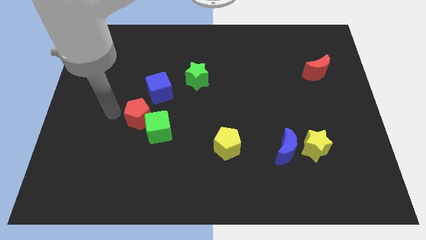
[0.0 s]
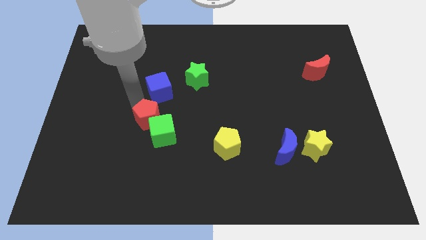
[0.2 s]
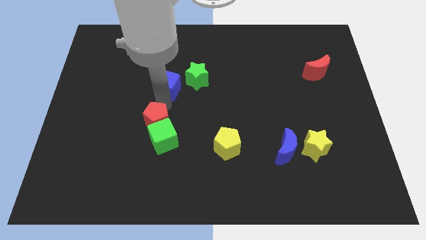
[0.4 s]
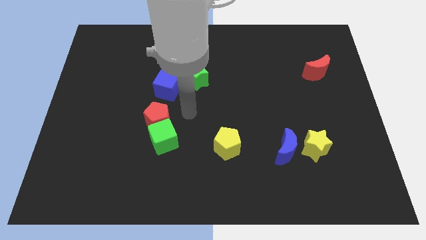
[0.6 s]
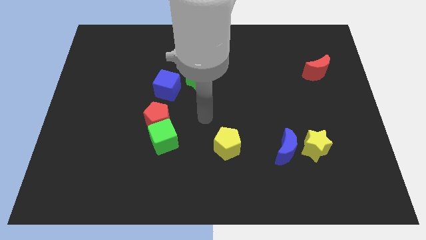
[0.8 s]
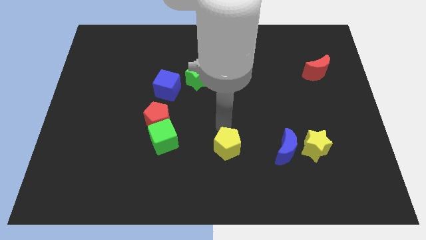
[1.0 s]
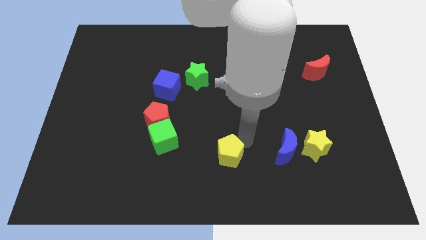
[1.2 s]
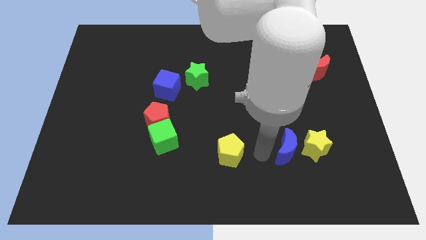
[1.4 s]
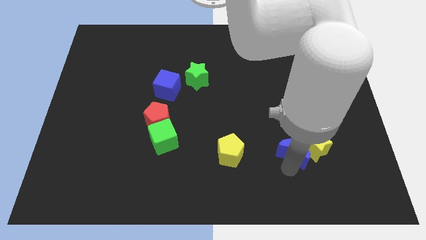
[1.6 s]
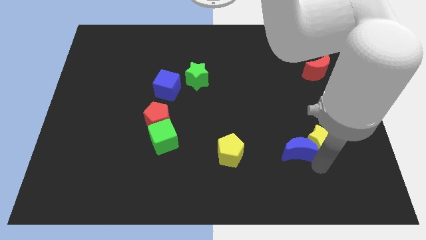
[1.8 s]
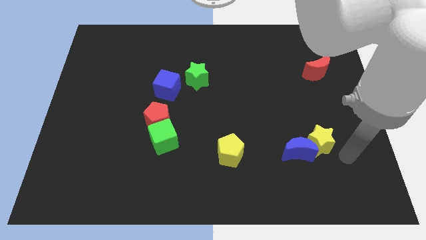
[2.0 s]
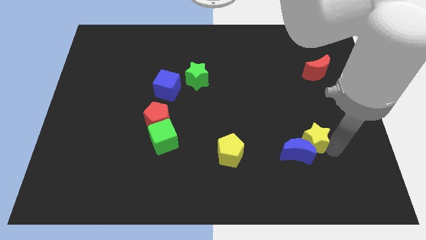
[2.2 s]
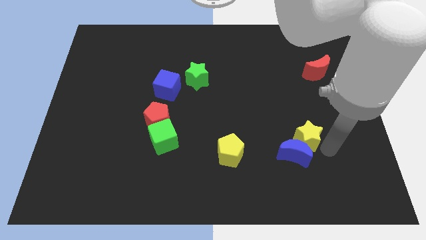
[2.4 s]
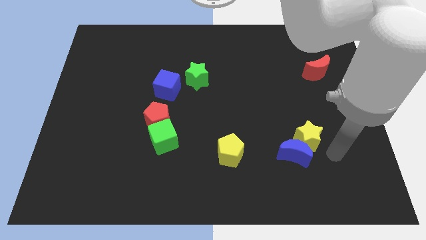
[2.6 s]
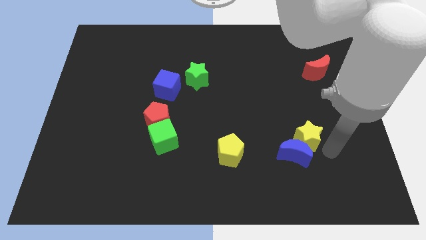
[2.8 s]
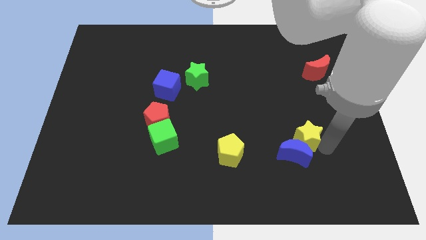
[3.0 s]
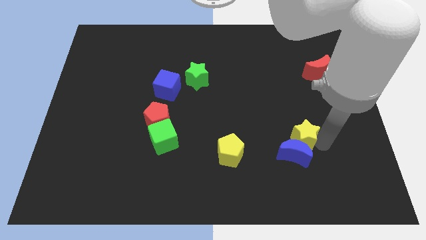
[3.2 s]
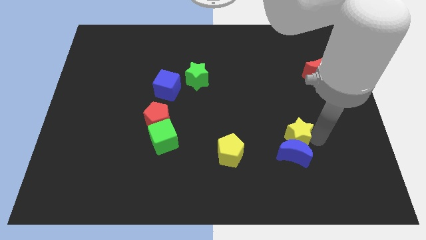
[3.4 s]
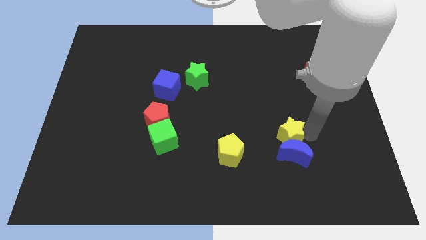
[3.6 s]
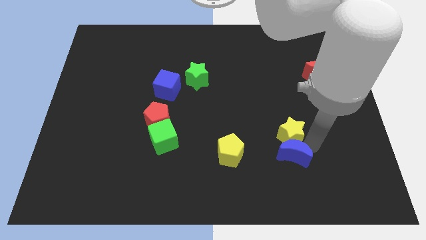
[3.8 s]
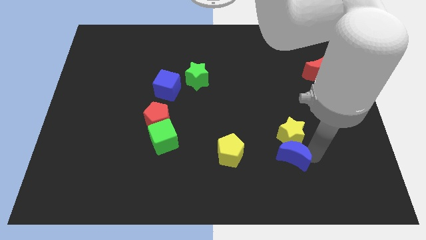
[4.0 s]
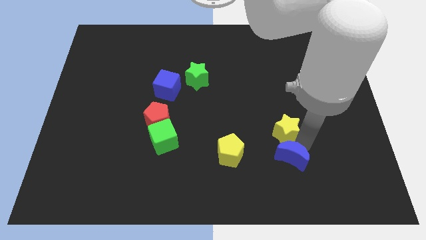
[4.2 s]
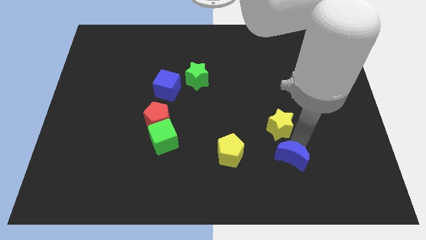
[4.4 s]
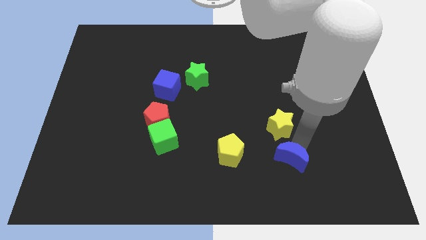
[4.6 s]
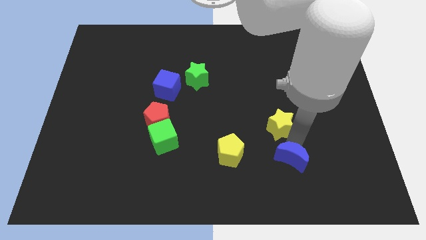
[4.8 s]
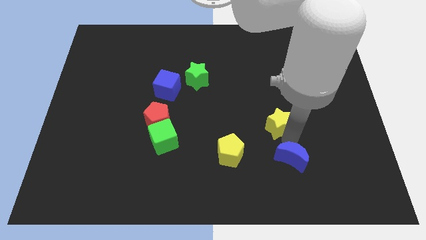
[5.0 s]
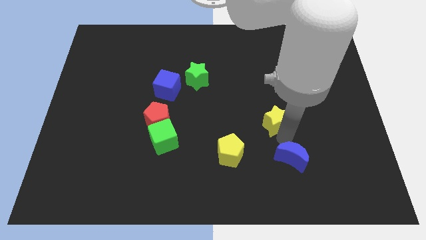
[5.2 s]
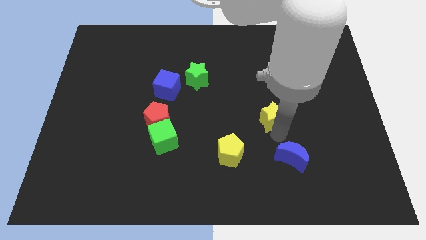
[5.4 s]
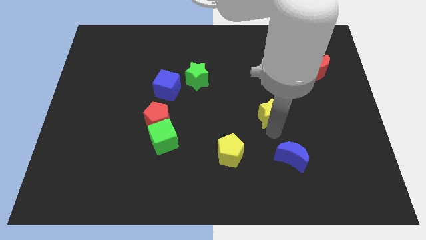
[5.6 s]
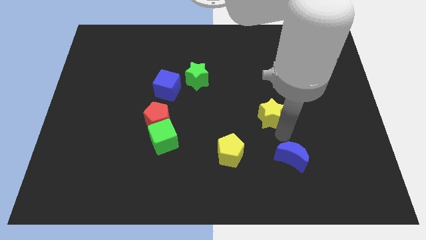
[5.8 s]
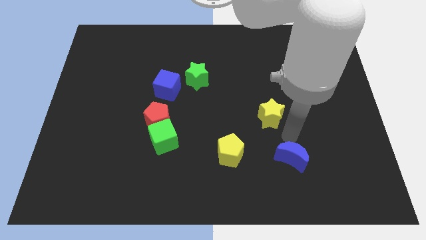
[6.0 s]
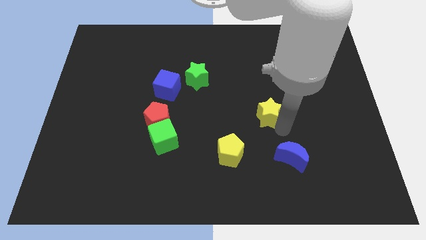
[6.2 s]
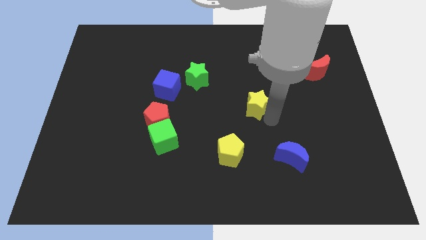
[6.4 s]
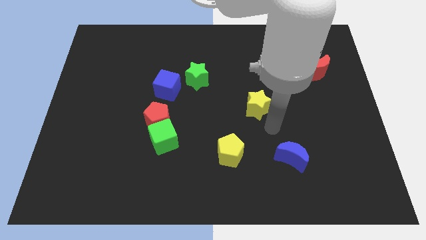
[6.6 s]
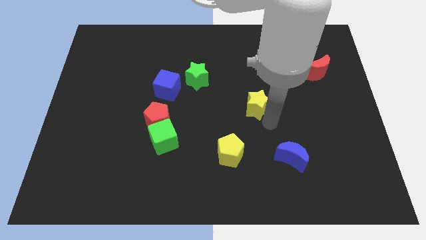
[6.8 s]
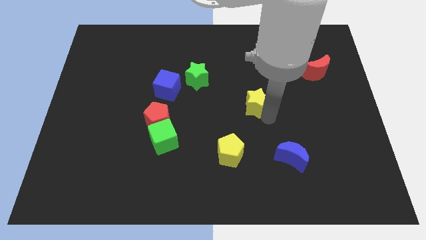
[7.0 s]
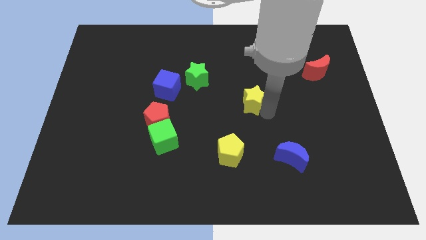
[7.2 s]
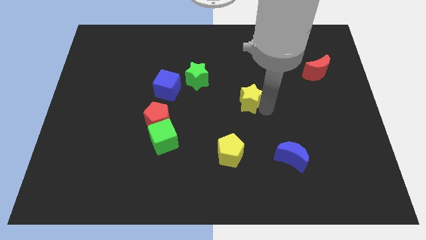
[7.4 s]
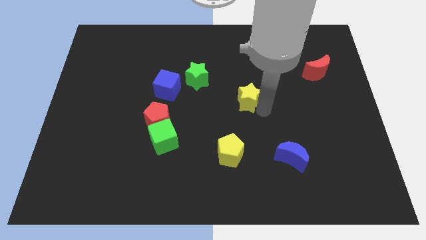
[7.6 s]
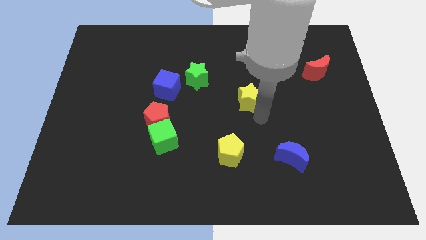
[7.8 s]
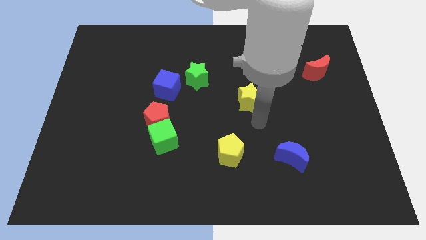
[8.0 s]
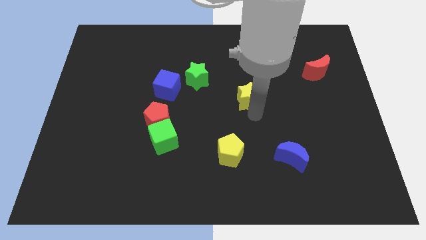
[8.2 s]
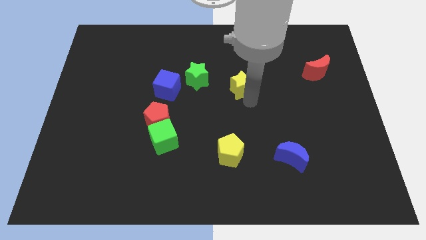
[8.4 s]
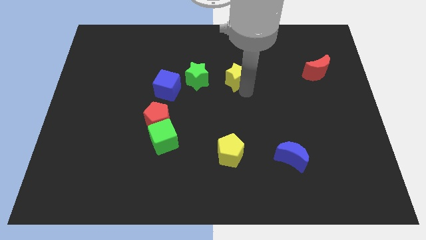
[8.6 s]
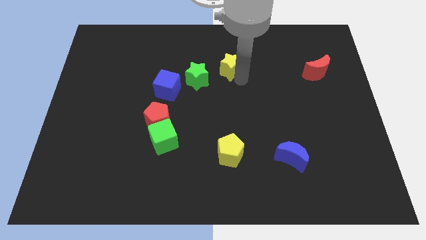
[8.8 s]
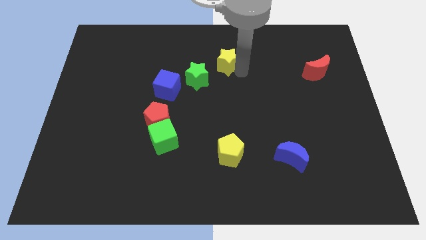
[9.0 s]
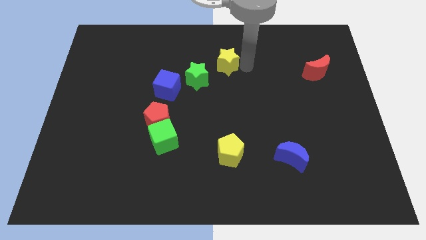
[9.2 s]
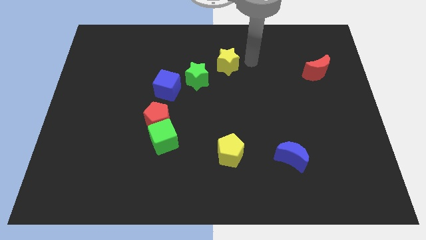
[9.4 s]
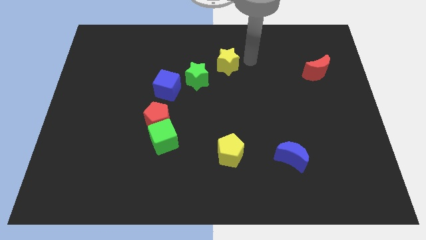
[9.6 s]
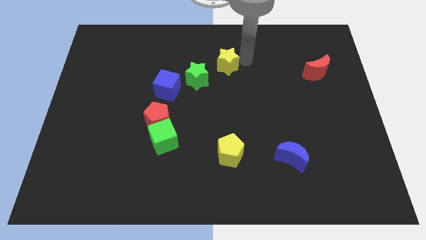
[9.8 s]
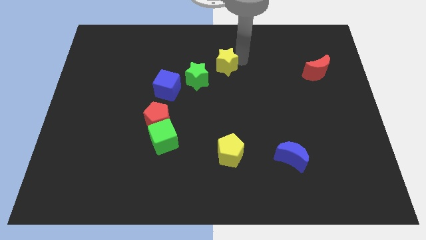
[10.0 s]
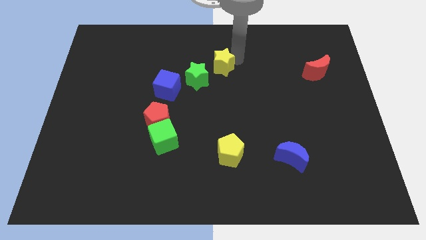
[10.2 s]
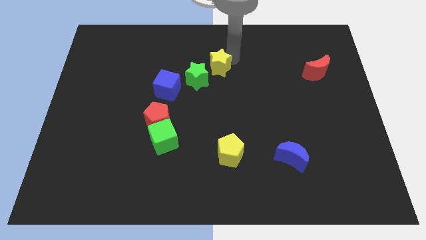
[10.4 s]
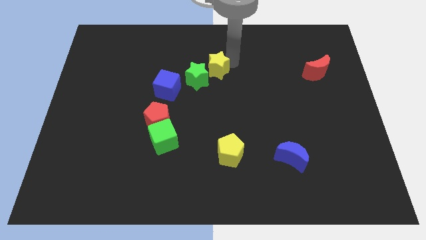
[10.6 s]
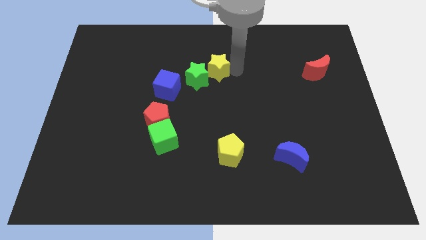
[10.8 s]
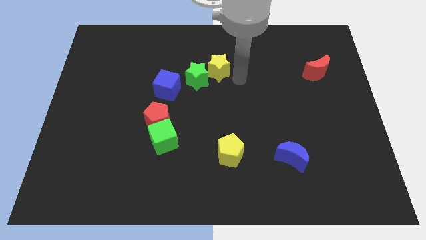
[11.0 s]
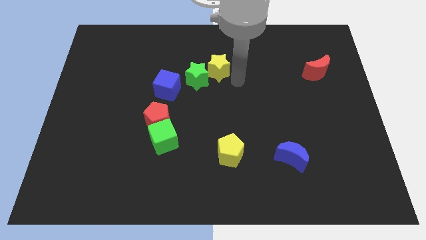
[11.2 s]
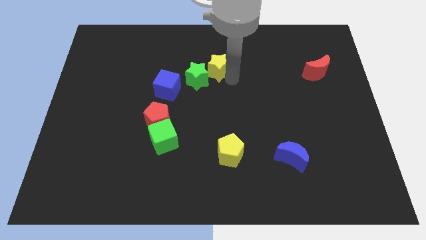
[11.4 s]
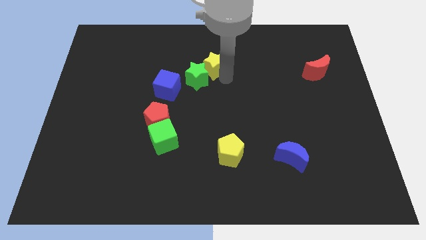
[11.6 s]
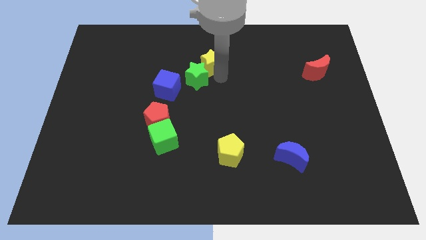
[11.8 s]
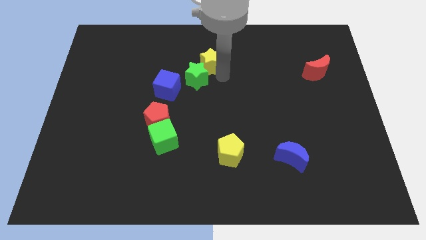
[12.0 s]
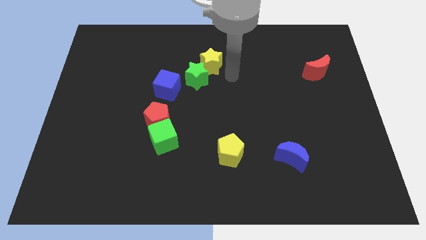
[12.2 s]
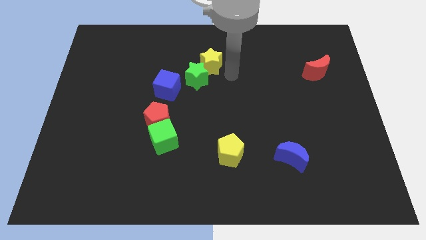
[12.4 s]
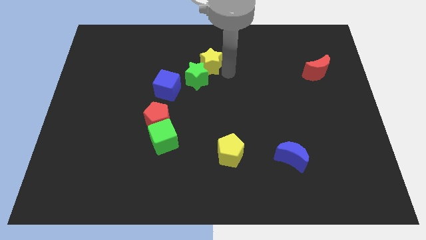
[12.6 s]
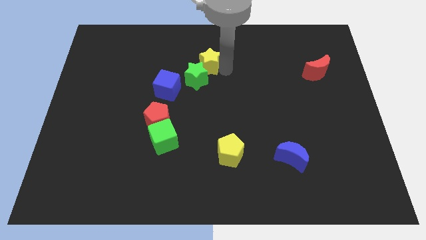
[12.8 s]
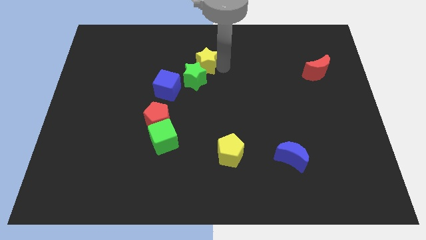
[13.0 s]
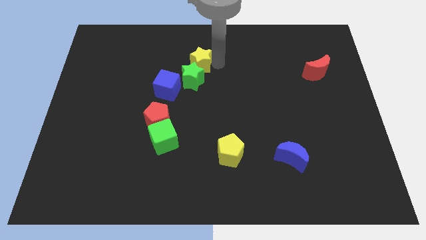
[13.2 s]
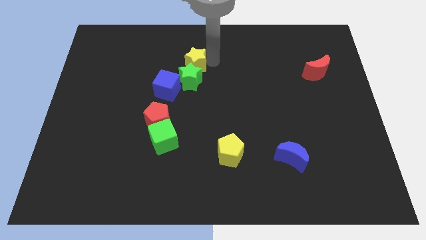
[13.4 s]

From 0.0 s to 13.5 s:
move the yellow star to the top left side of the green star
